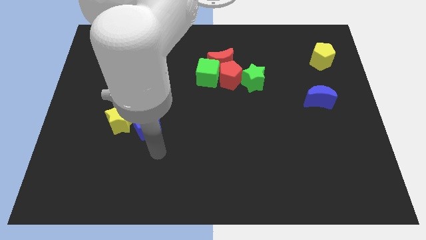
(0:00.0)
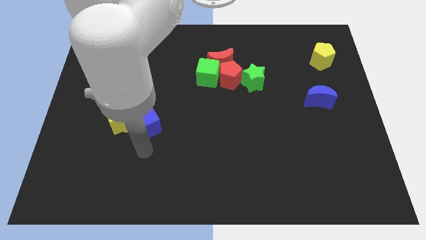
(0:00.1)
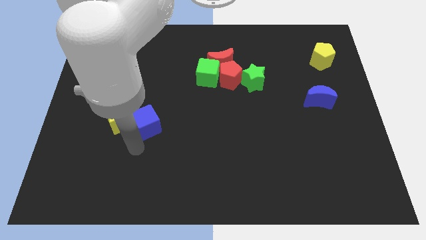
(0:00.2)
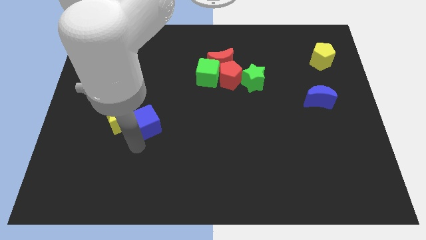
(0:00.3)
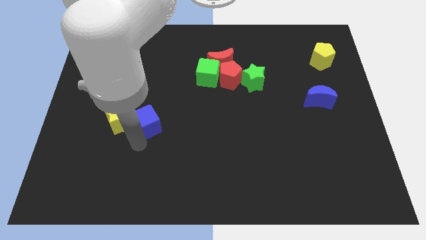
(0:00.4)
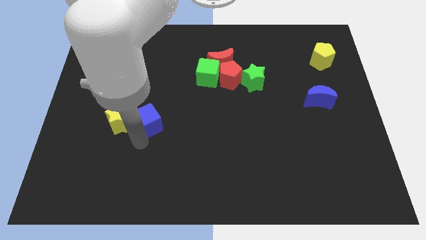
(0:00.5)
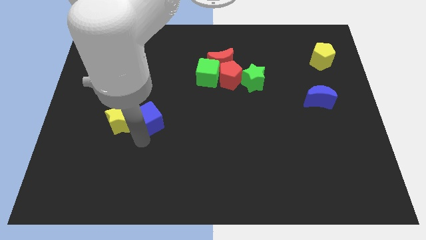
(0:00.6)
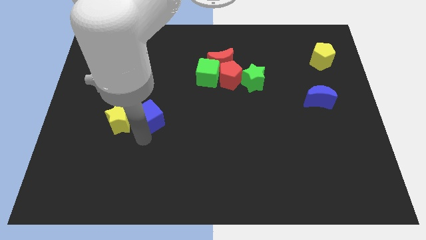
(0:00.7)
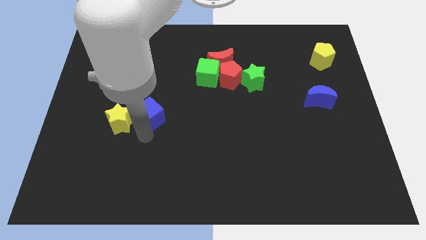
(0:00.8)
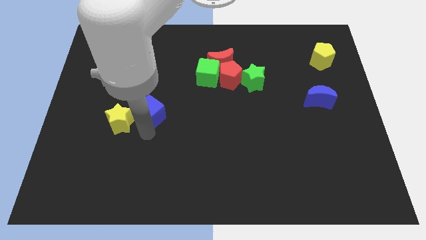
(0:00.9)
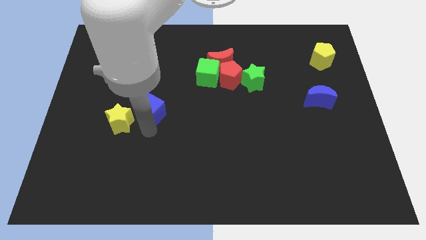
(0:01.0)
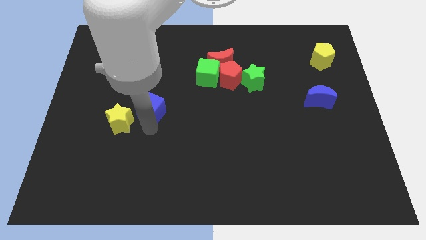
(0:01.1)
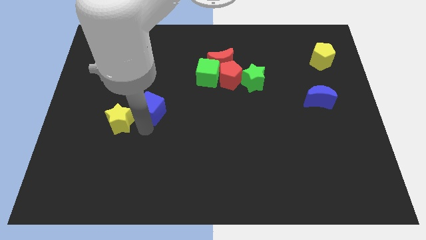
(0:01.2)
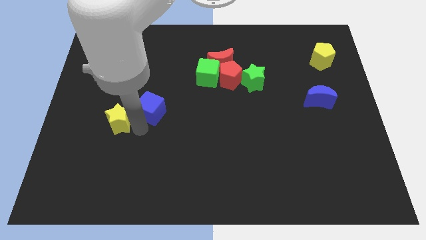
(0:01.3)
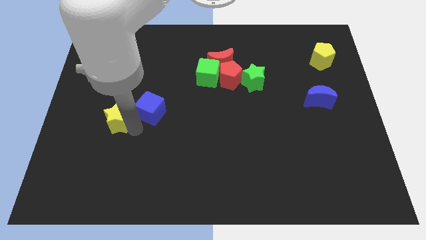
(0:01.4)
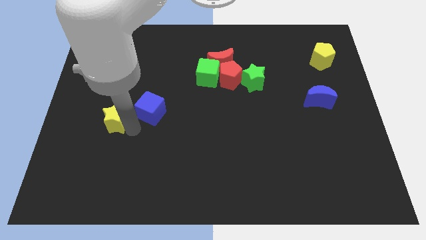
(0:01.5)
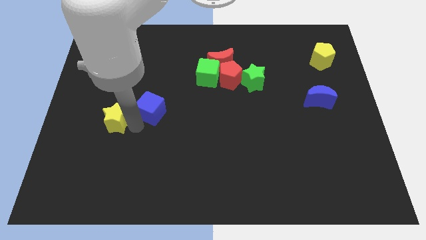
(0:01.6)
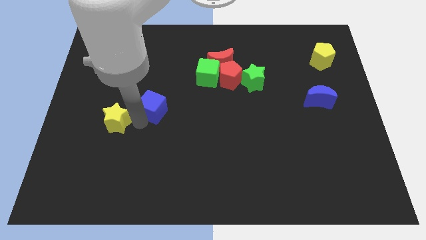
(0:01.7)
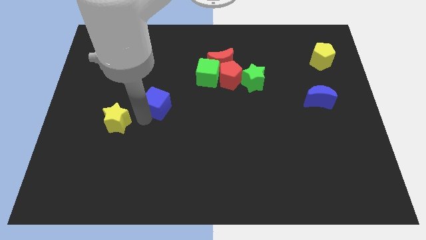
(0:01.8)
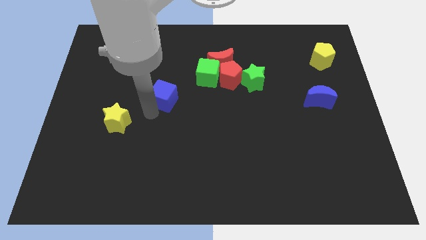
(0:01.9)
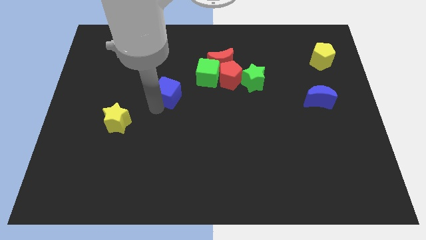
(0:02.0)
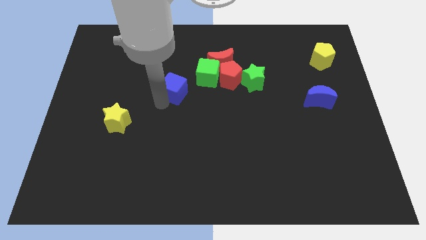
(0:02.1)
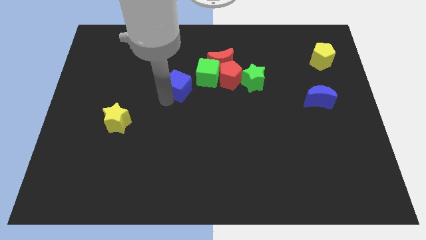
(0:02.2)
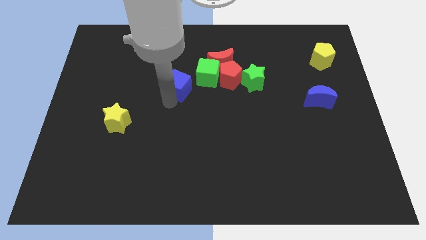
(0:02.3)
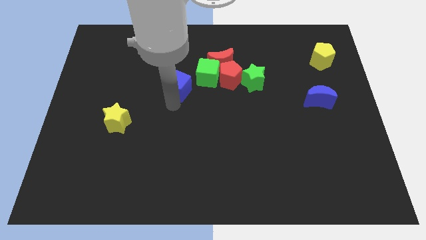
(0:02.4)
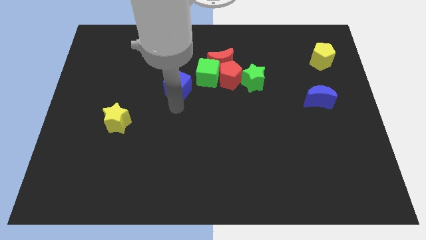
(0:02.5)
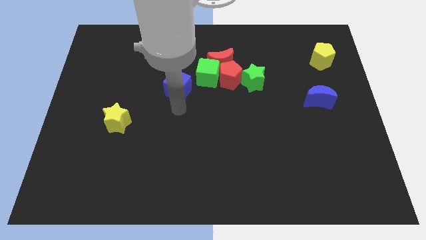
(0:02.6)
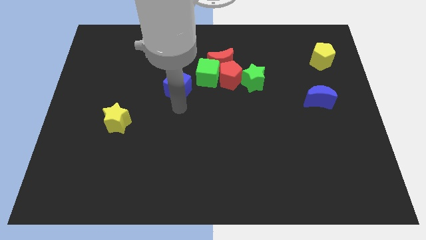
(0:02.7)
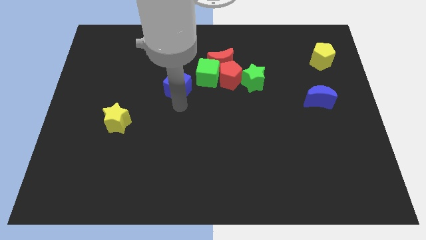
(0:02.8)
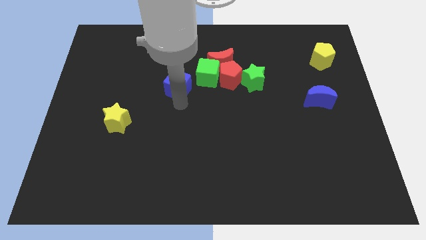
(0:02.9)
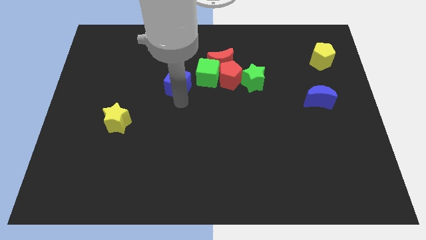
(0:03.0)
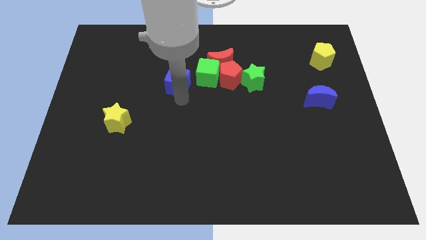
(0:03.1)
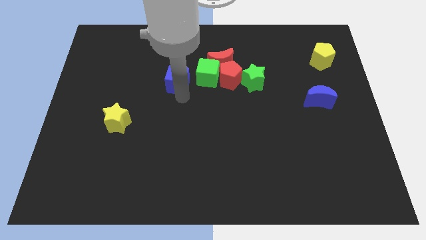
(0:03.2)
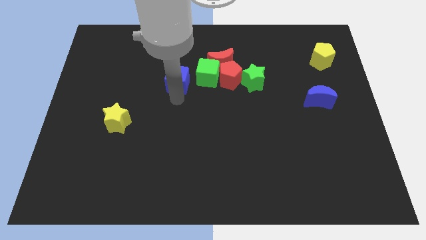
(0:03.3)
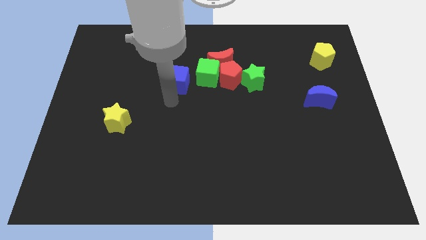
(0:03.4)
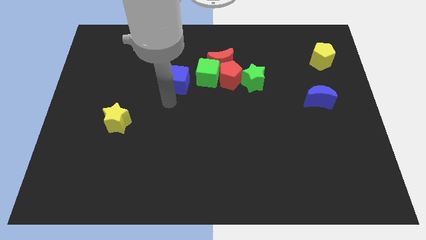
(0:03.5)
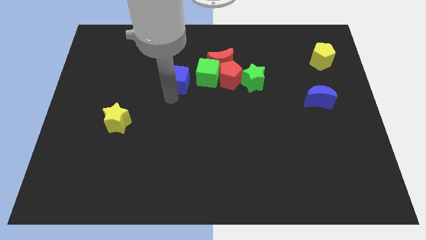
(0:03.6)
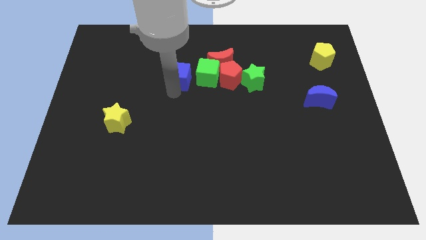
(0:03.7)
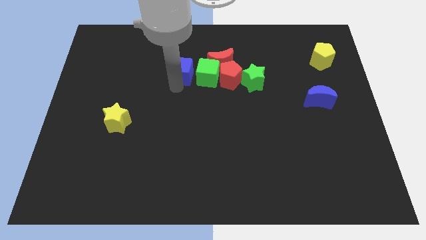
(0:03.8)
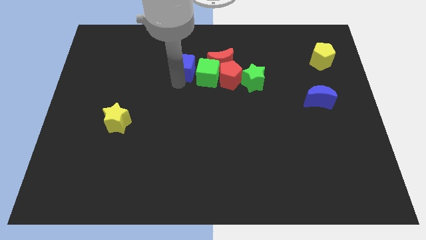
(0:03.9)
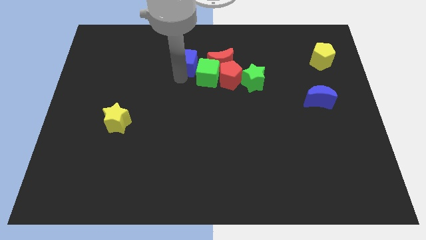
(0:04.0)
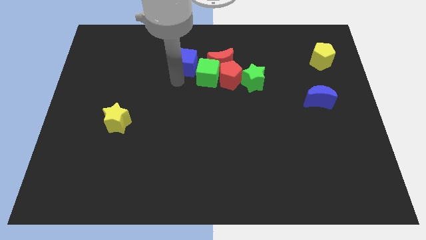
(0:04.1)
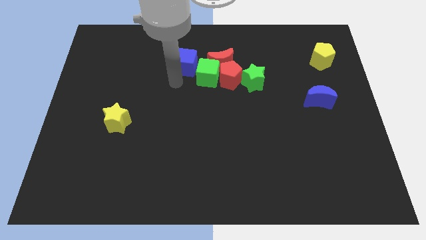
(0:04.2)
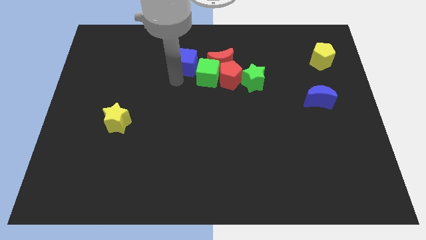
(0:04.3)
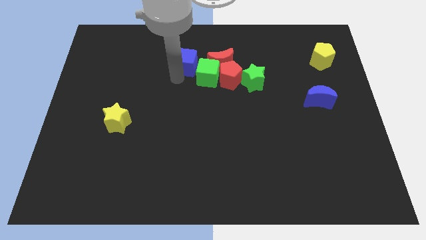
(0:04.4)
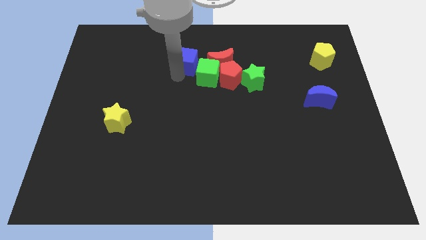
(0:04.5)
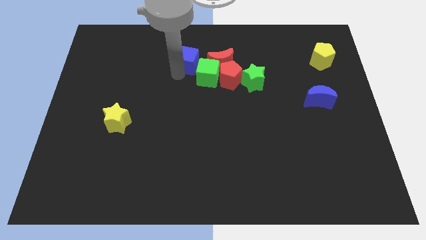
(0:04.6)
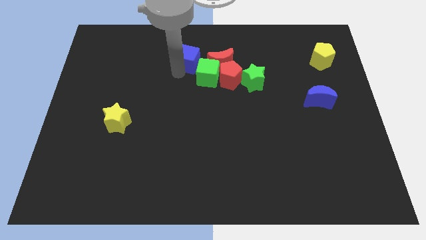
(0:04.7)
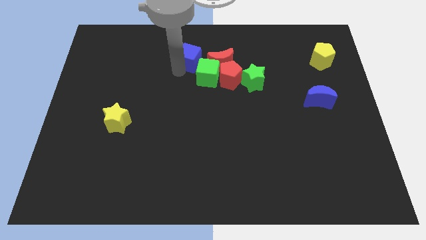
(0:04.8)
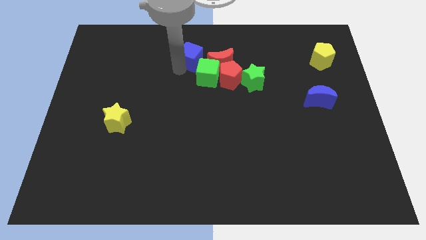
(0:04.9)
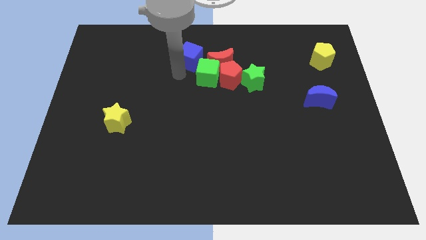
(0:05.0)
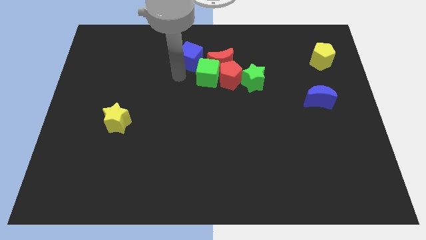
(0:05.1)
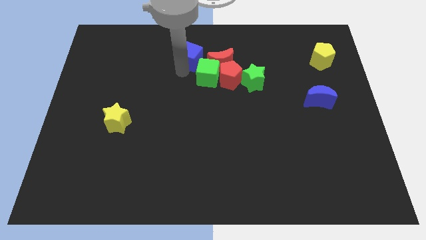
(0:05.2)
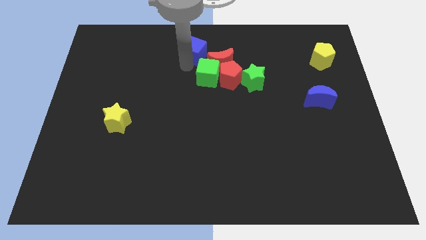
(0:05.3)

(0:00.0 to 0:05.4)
put the blue cube to the towards your base
